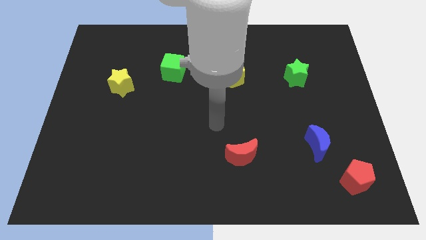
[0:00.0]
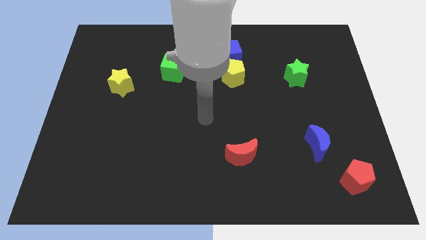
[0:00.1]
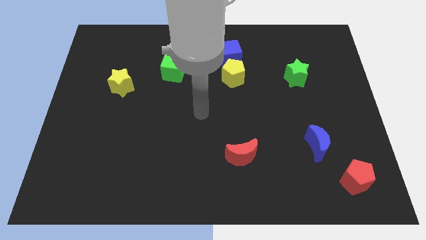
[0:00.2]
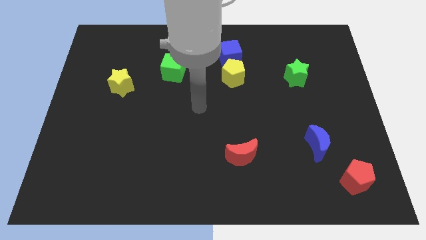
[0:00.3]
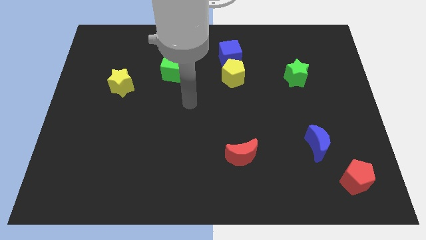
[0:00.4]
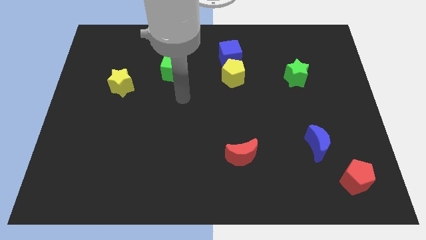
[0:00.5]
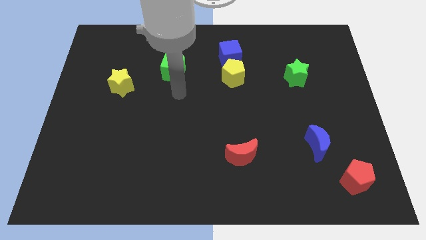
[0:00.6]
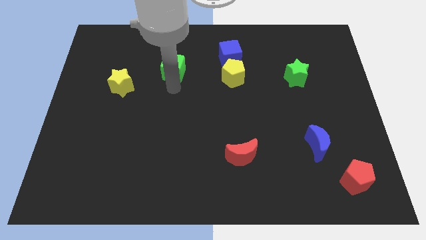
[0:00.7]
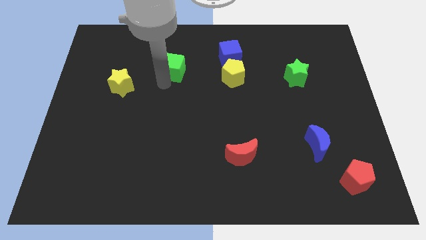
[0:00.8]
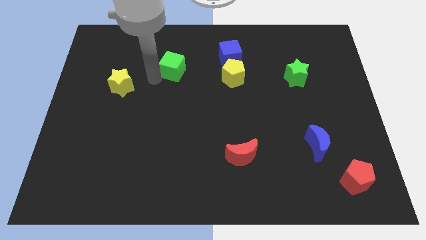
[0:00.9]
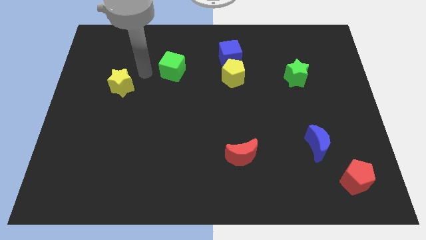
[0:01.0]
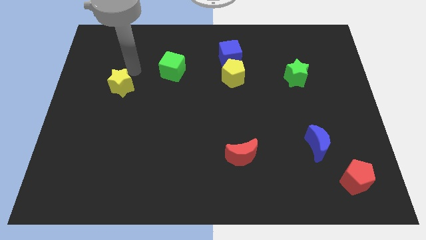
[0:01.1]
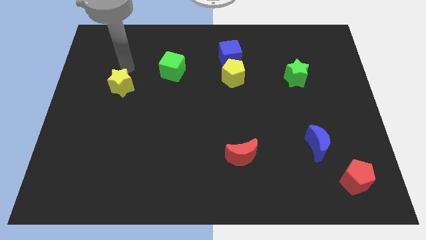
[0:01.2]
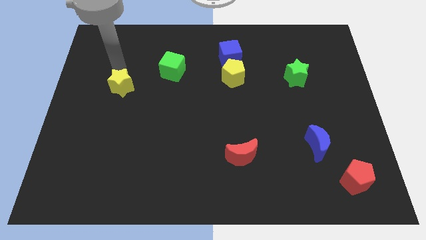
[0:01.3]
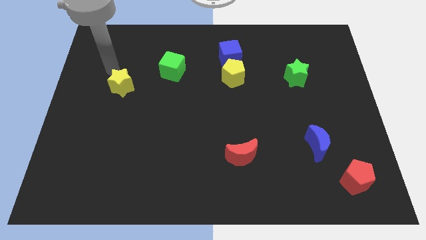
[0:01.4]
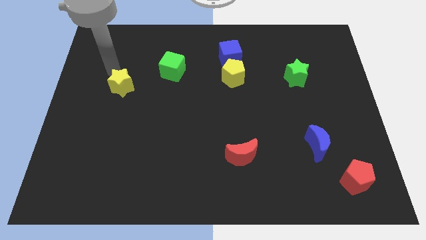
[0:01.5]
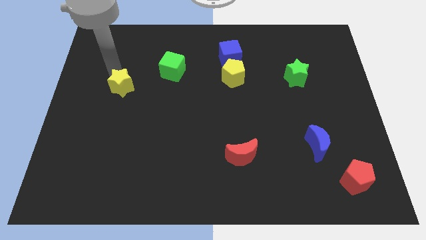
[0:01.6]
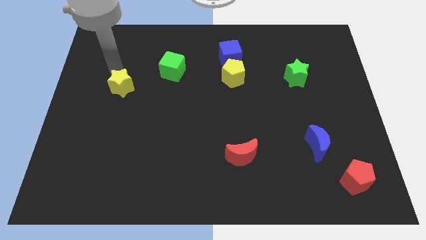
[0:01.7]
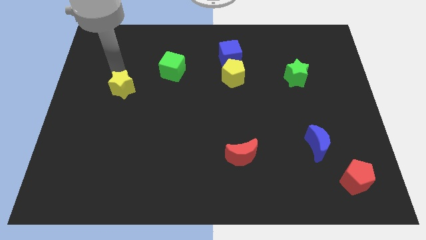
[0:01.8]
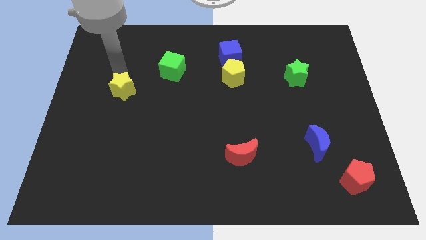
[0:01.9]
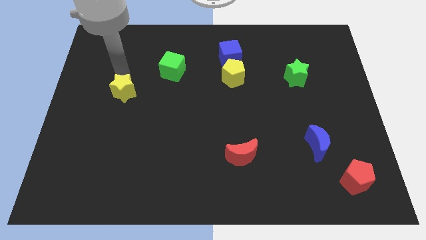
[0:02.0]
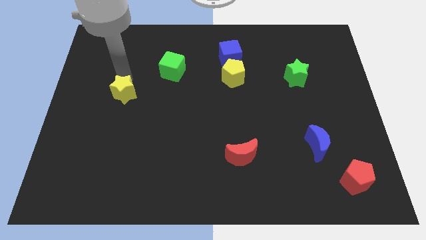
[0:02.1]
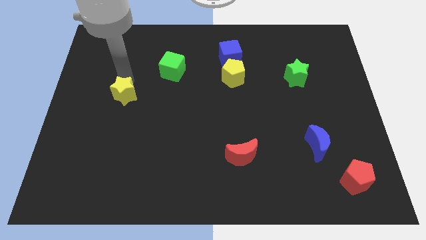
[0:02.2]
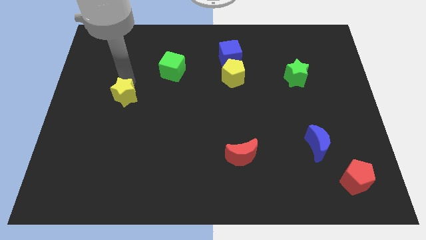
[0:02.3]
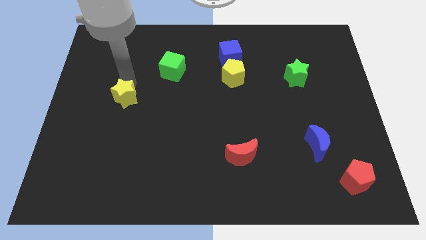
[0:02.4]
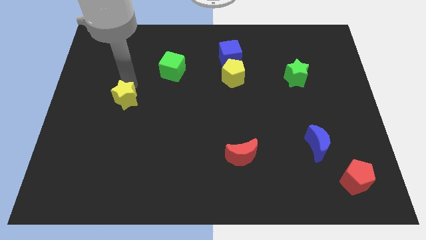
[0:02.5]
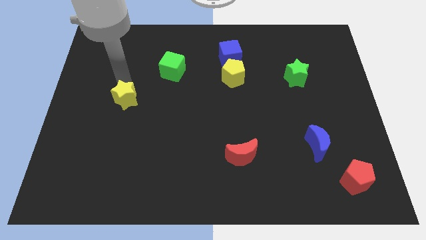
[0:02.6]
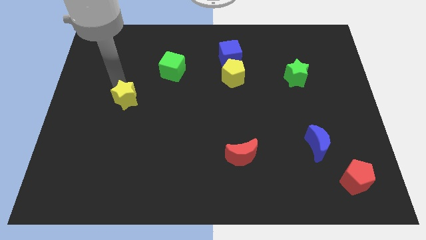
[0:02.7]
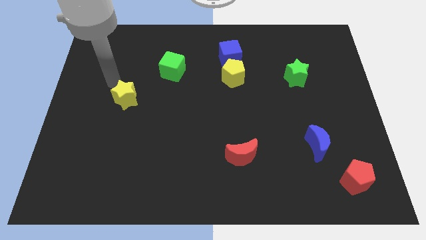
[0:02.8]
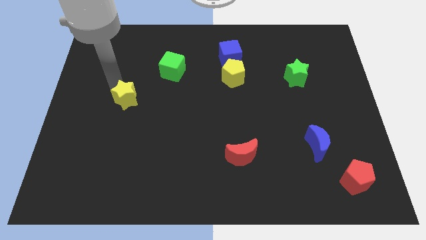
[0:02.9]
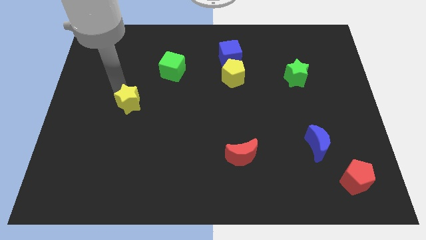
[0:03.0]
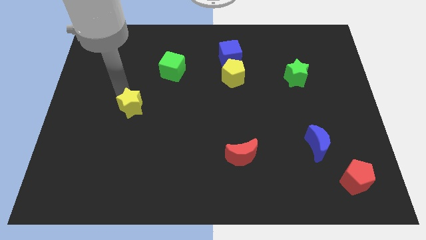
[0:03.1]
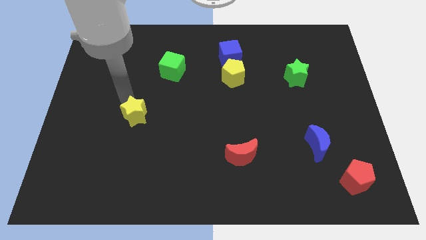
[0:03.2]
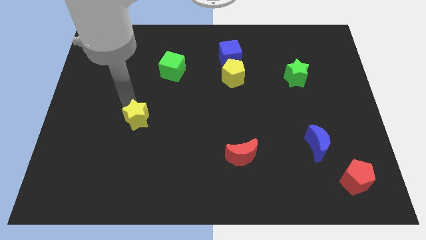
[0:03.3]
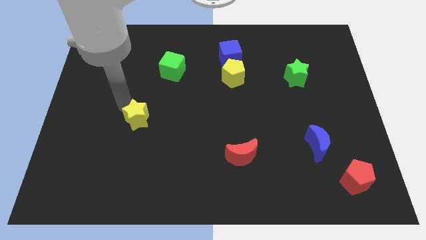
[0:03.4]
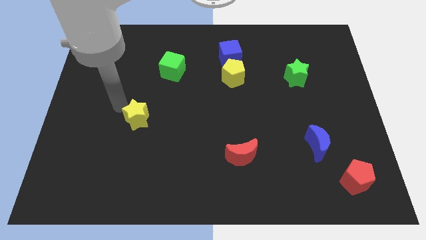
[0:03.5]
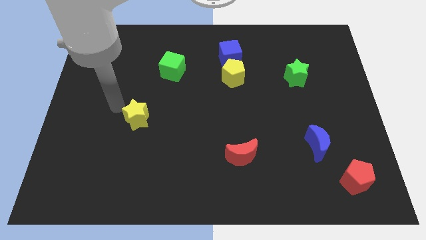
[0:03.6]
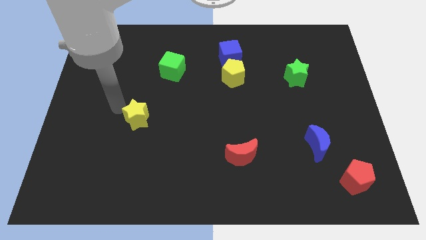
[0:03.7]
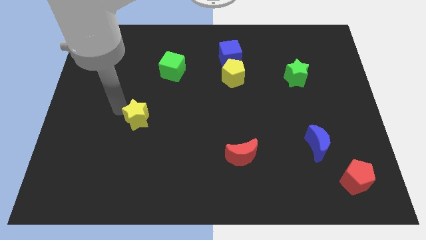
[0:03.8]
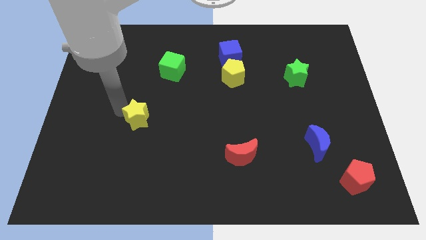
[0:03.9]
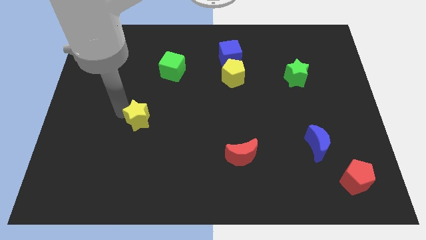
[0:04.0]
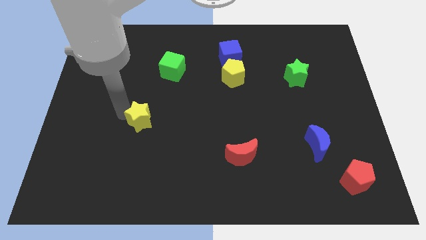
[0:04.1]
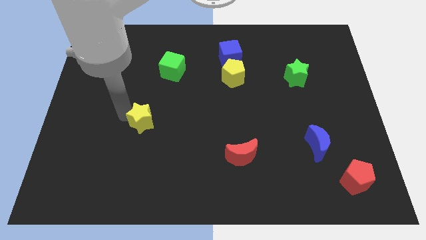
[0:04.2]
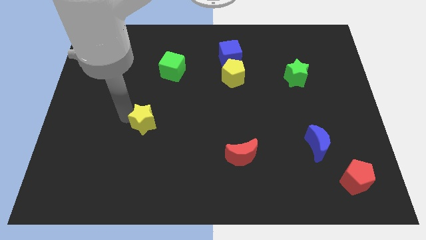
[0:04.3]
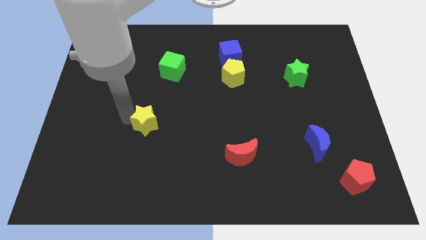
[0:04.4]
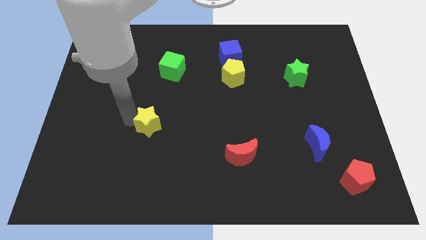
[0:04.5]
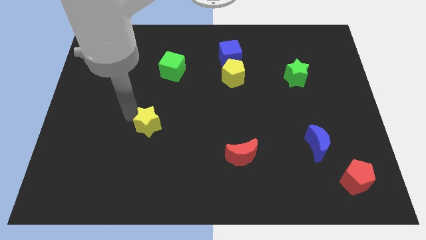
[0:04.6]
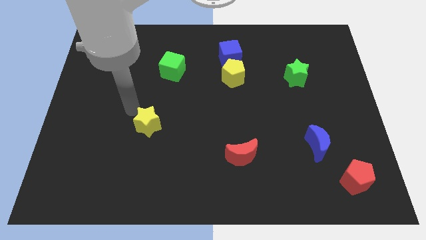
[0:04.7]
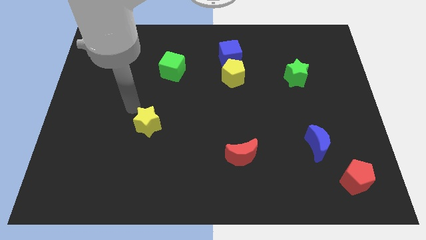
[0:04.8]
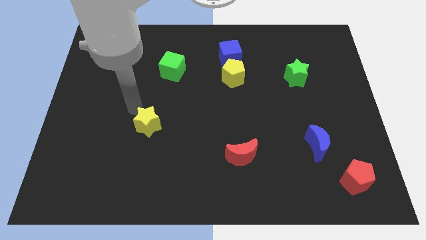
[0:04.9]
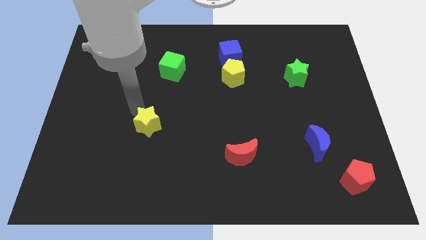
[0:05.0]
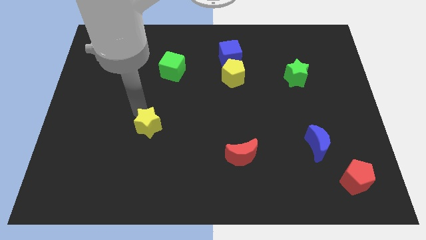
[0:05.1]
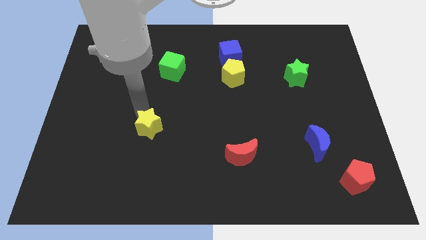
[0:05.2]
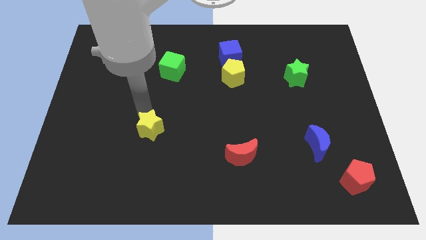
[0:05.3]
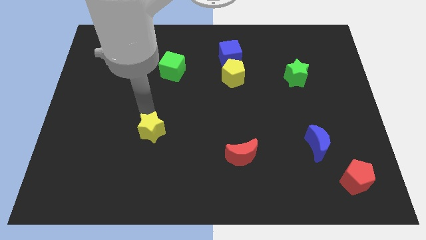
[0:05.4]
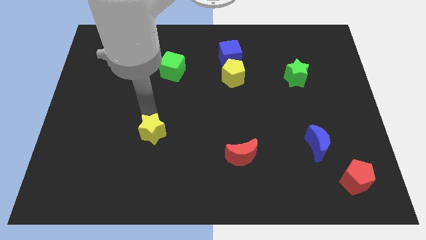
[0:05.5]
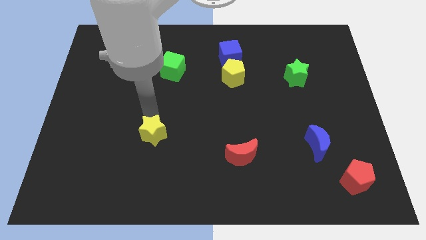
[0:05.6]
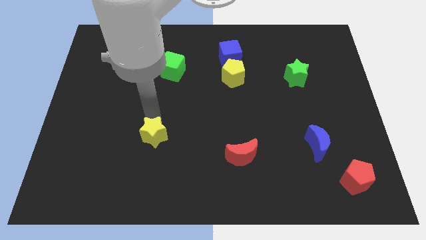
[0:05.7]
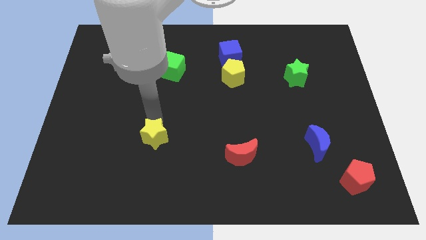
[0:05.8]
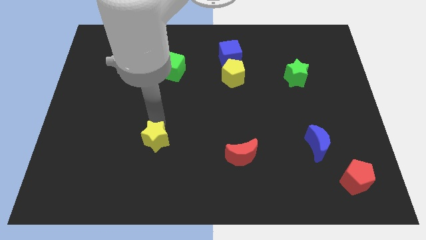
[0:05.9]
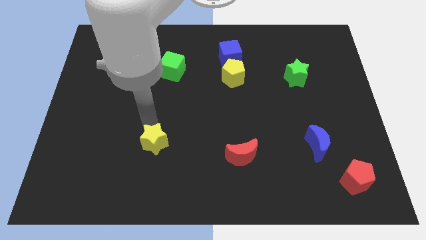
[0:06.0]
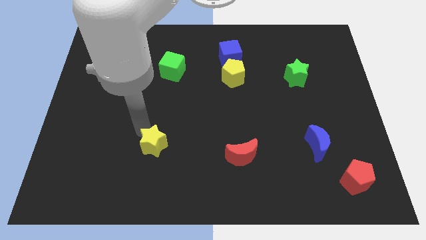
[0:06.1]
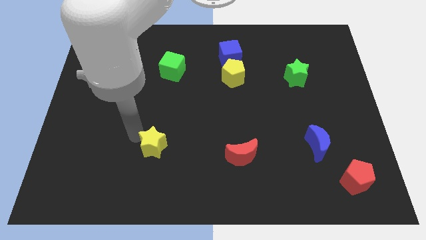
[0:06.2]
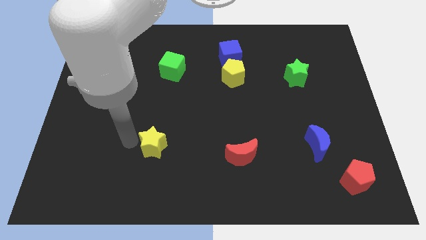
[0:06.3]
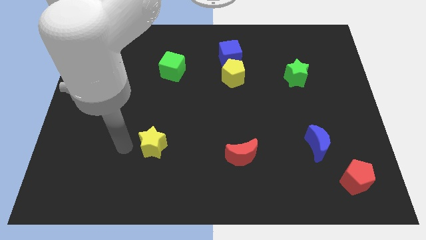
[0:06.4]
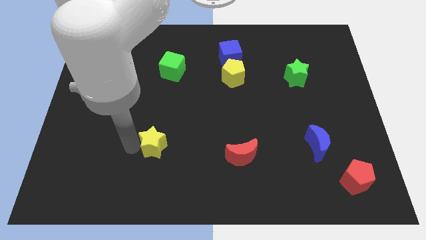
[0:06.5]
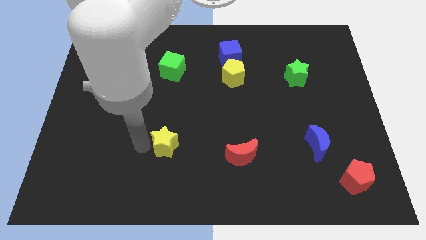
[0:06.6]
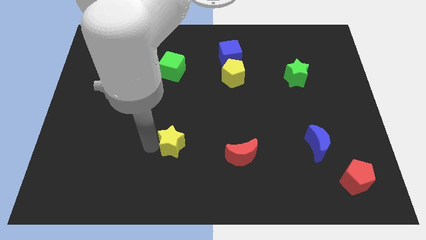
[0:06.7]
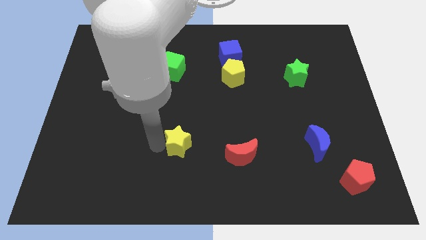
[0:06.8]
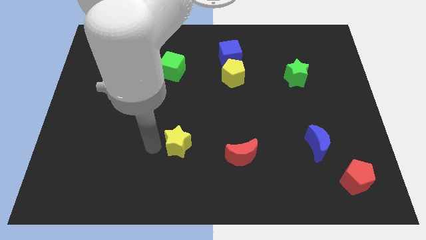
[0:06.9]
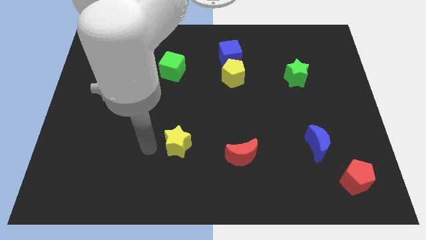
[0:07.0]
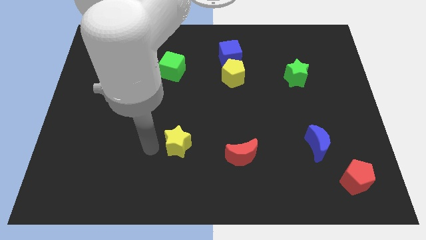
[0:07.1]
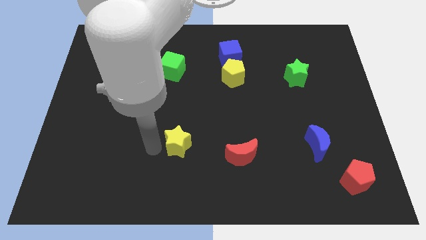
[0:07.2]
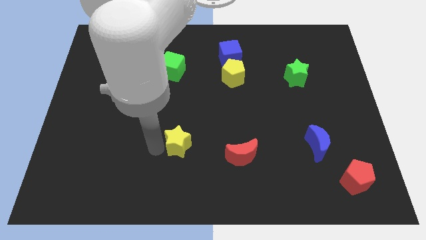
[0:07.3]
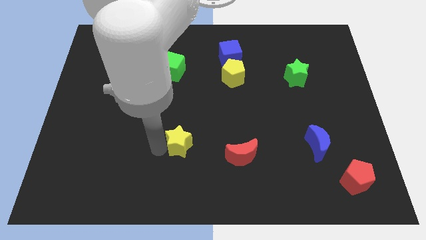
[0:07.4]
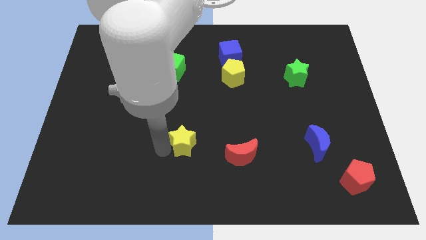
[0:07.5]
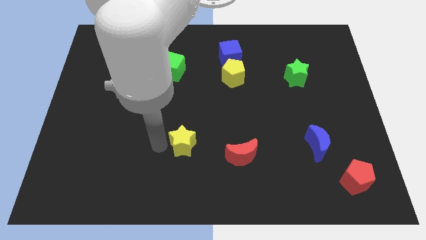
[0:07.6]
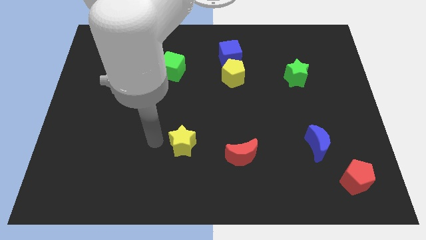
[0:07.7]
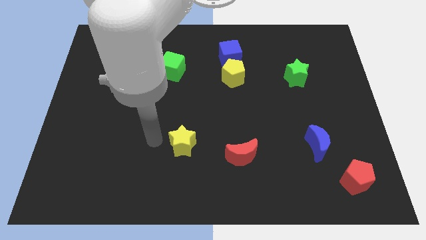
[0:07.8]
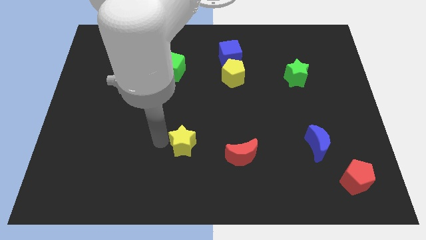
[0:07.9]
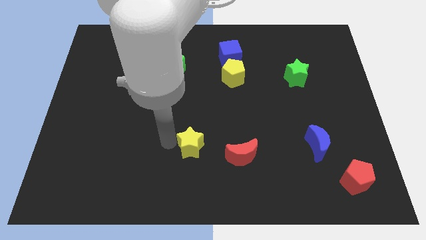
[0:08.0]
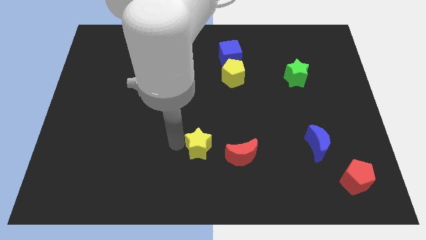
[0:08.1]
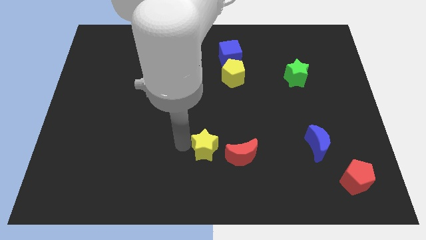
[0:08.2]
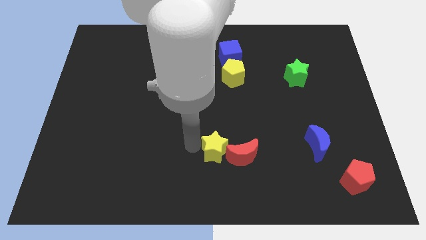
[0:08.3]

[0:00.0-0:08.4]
move the yellow star next to the red moon
